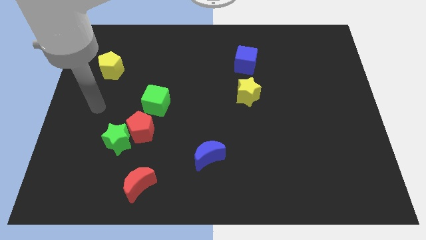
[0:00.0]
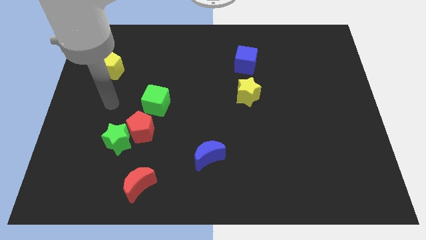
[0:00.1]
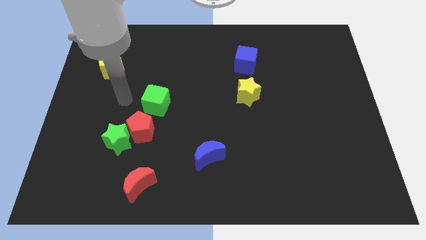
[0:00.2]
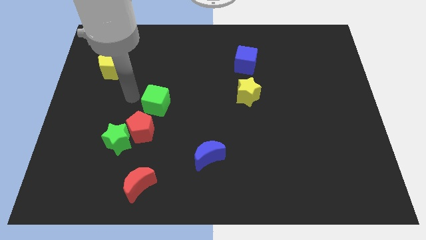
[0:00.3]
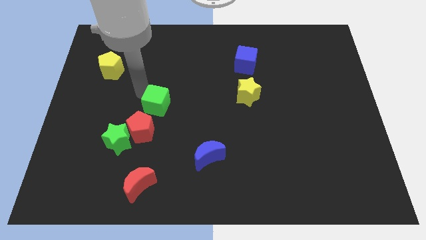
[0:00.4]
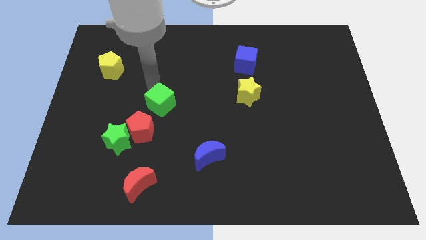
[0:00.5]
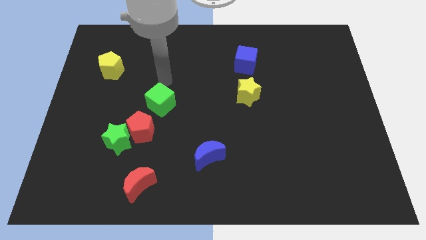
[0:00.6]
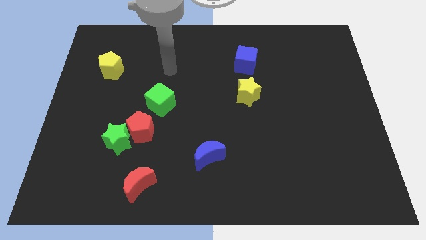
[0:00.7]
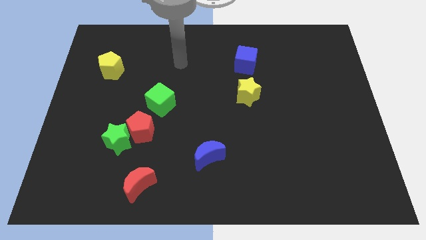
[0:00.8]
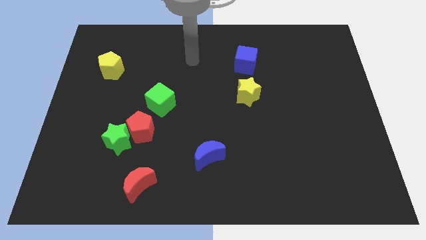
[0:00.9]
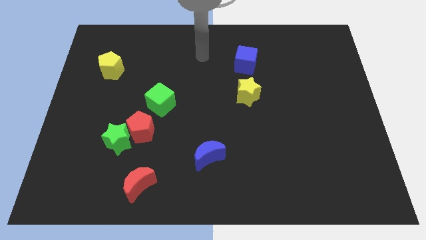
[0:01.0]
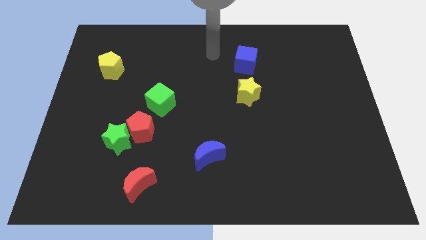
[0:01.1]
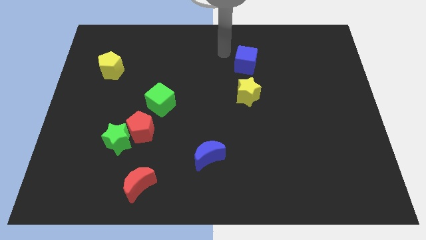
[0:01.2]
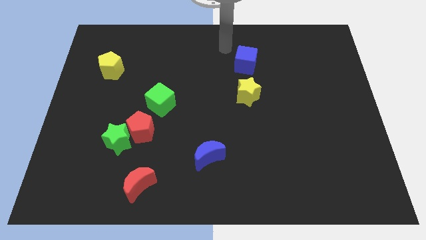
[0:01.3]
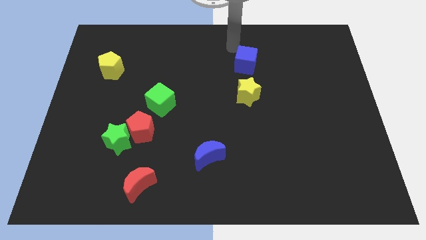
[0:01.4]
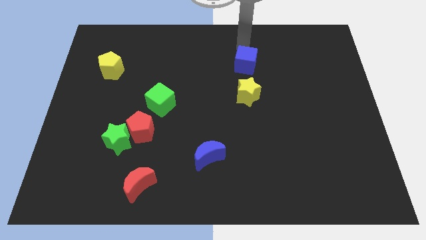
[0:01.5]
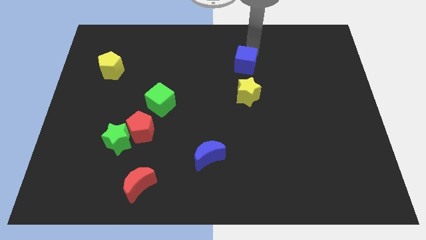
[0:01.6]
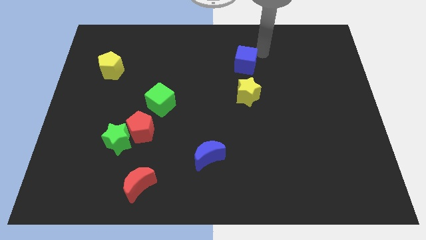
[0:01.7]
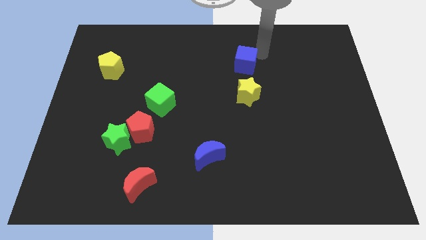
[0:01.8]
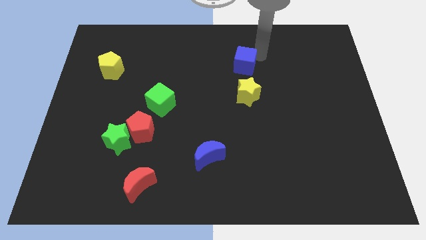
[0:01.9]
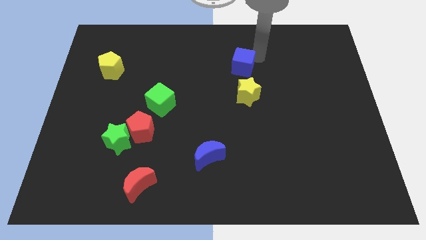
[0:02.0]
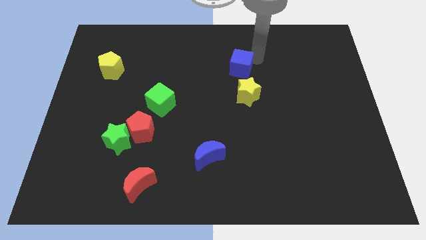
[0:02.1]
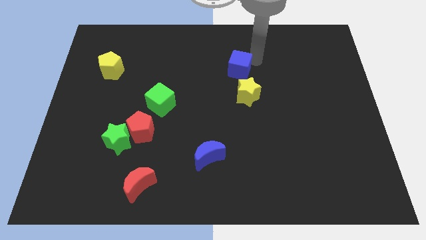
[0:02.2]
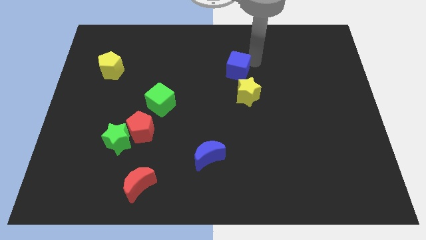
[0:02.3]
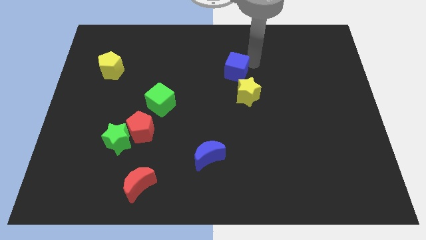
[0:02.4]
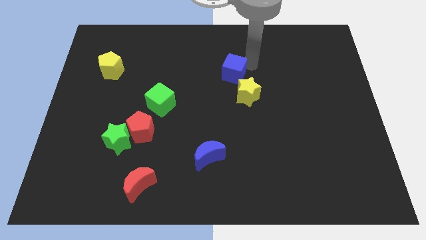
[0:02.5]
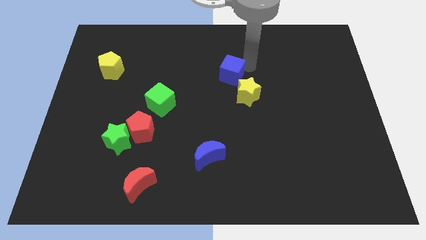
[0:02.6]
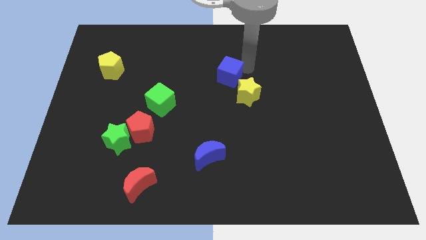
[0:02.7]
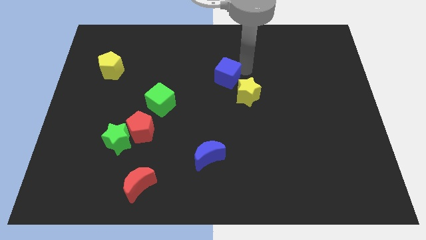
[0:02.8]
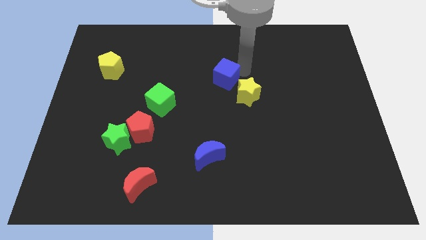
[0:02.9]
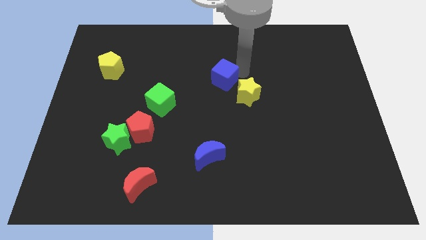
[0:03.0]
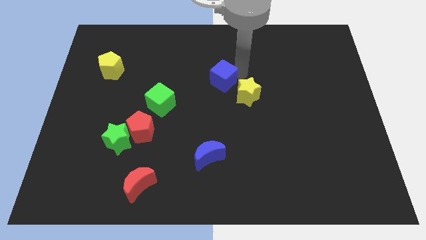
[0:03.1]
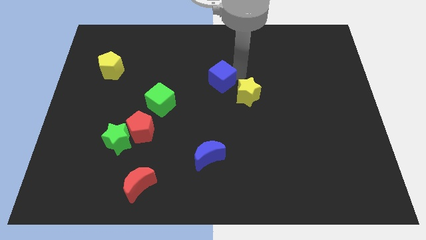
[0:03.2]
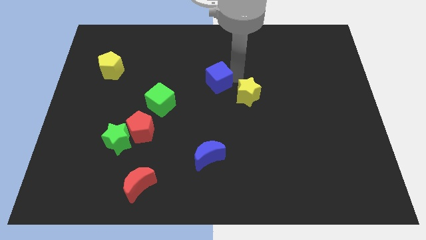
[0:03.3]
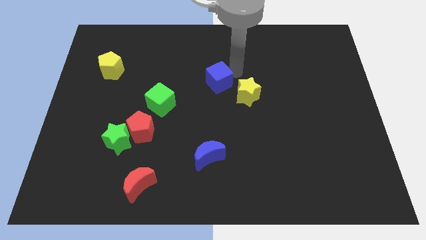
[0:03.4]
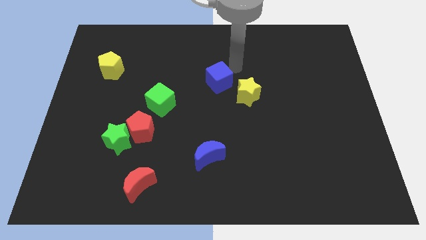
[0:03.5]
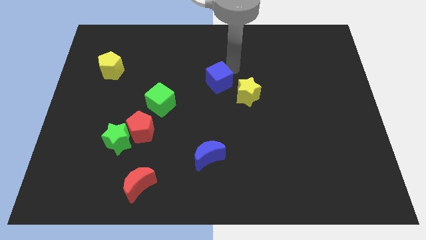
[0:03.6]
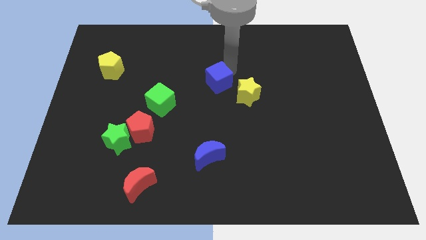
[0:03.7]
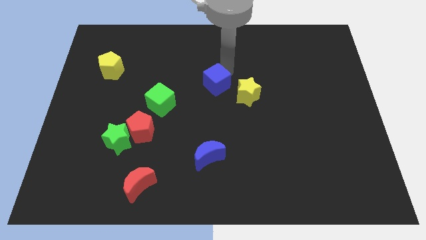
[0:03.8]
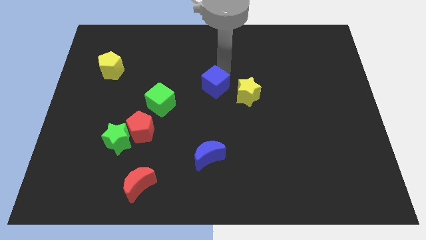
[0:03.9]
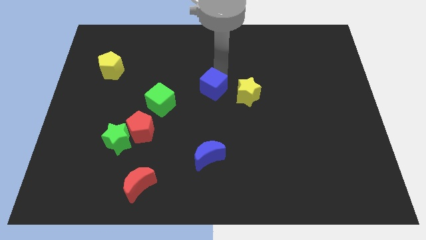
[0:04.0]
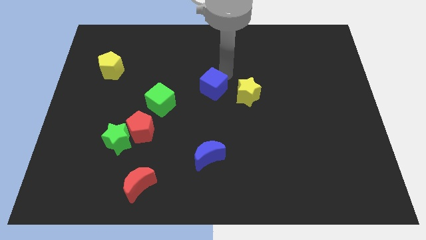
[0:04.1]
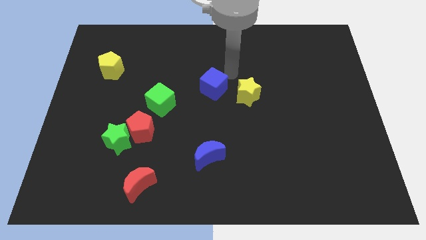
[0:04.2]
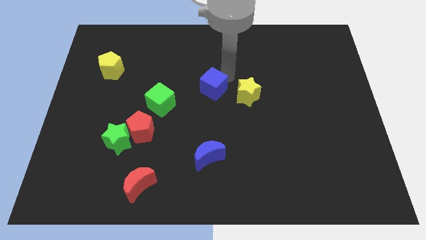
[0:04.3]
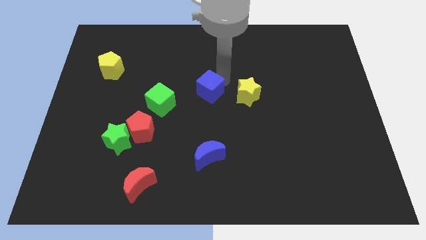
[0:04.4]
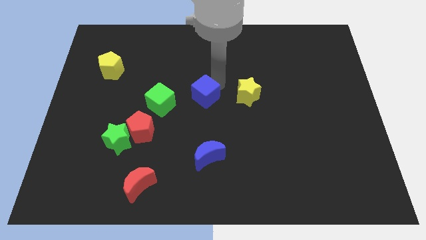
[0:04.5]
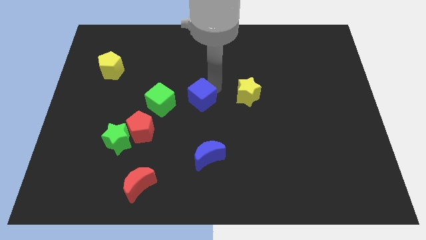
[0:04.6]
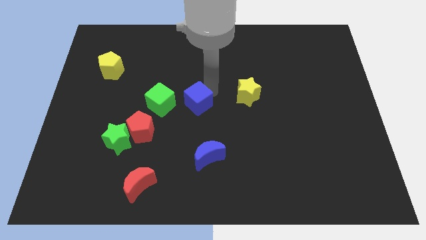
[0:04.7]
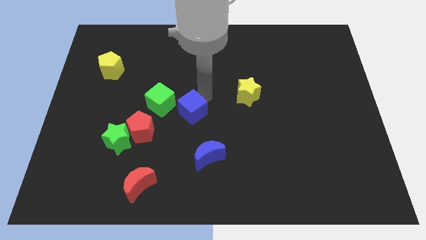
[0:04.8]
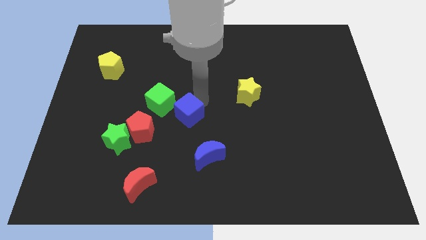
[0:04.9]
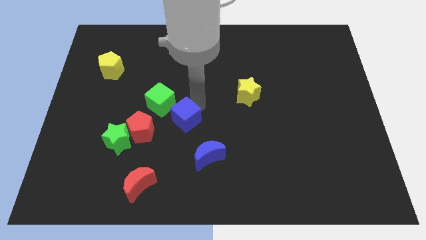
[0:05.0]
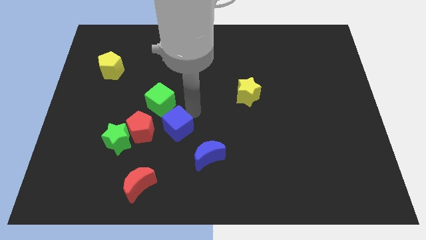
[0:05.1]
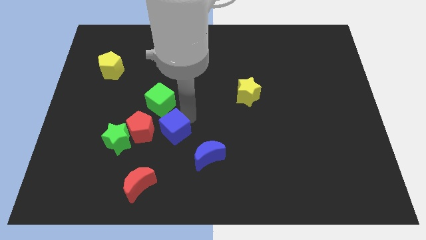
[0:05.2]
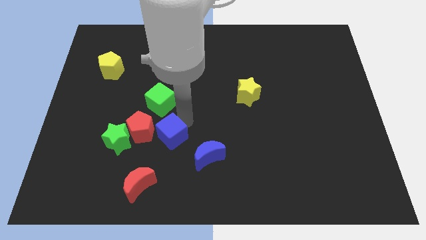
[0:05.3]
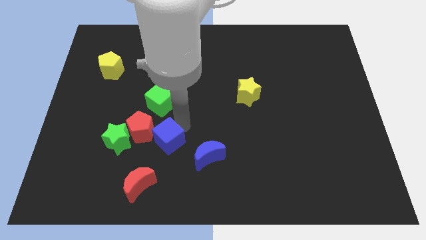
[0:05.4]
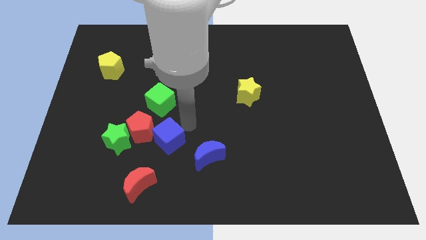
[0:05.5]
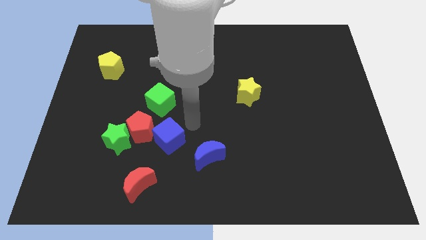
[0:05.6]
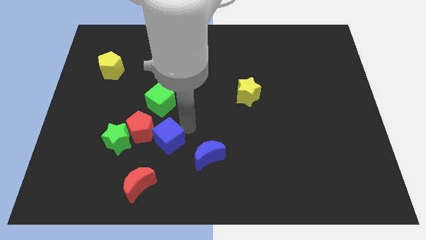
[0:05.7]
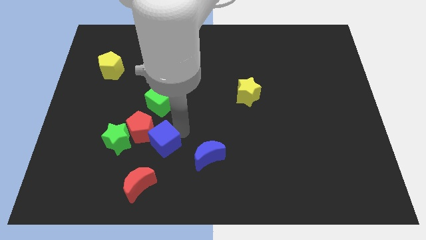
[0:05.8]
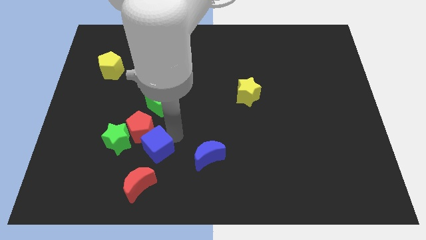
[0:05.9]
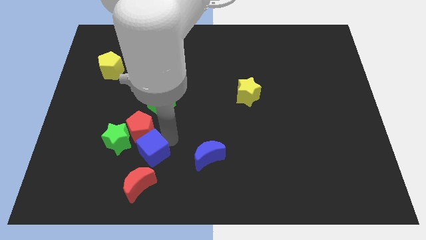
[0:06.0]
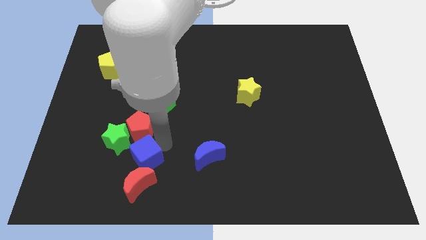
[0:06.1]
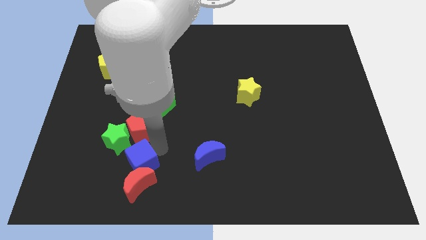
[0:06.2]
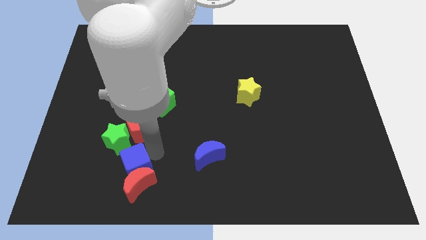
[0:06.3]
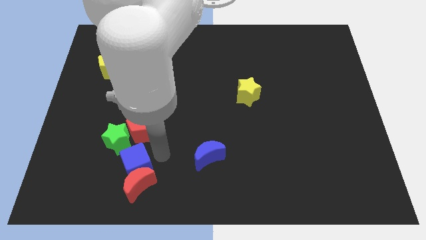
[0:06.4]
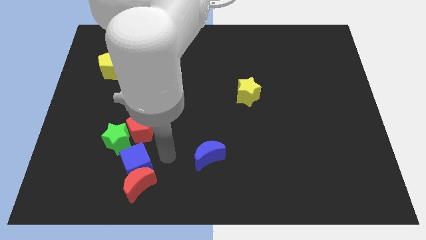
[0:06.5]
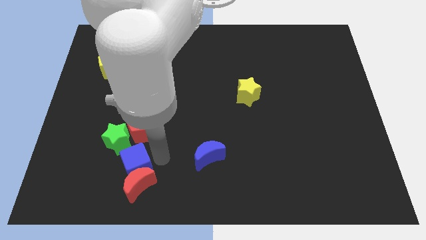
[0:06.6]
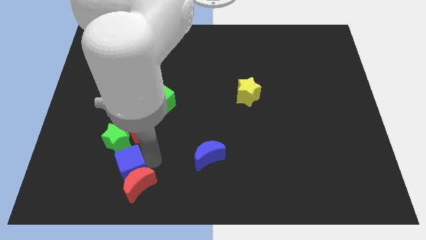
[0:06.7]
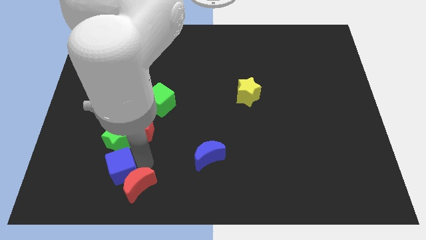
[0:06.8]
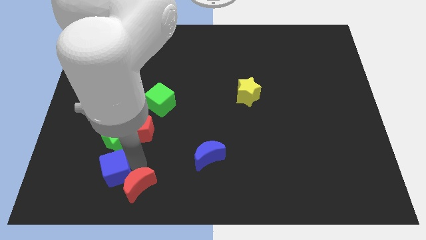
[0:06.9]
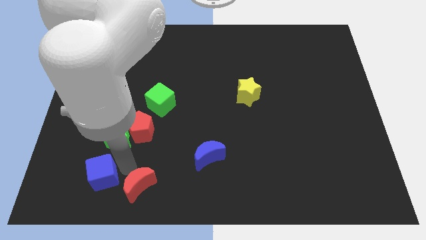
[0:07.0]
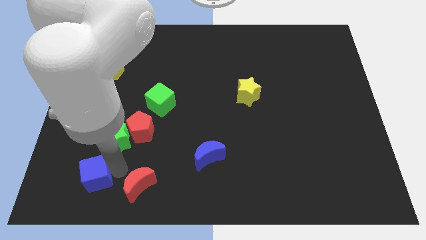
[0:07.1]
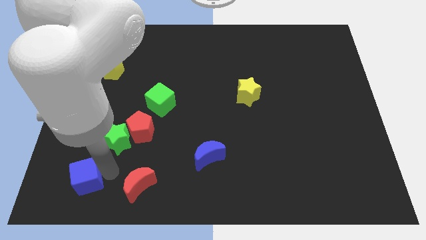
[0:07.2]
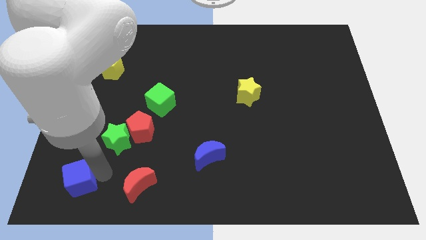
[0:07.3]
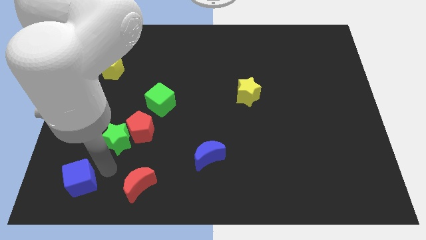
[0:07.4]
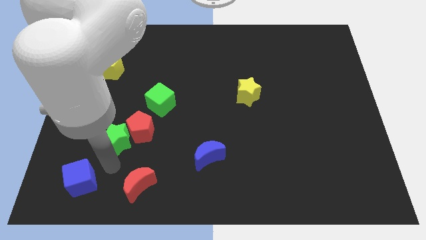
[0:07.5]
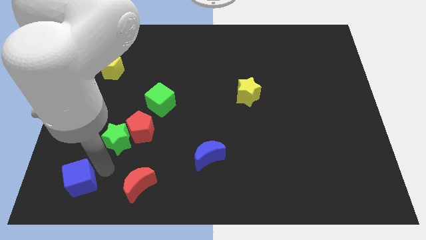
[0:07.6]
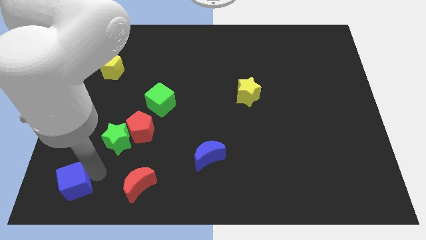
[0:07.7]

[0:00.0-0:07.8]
push the blue cube to the bottom left of the board
